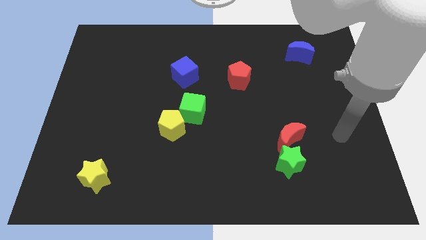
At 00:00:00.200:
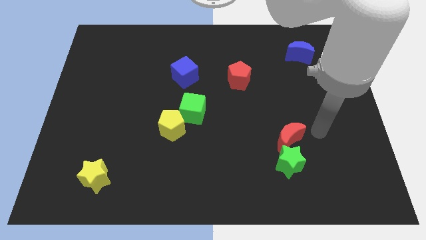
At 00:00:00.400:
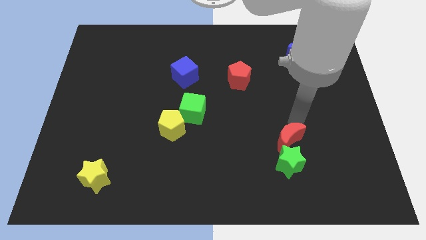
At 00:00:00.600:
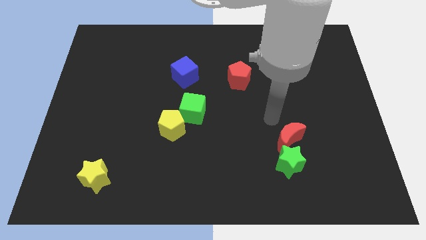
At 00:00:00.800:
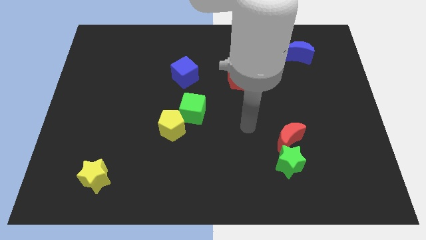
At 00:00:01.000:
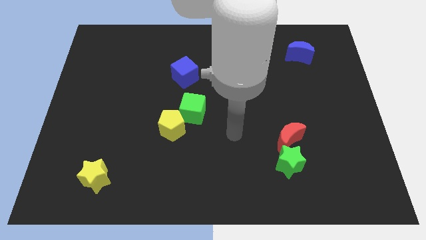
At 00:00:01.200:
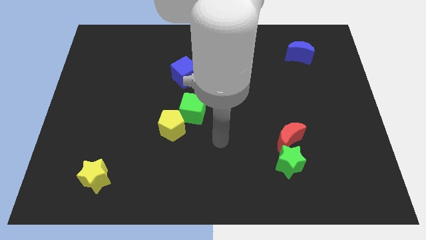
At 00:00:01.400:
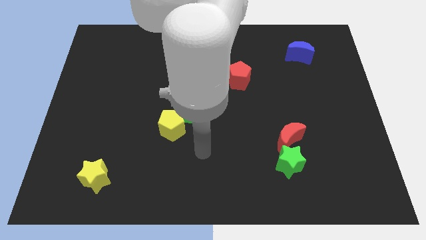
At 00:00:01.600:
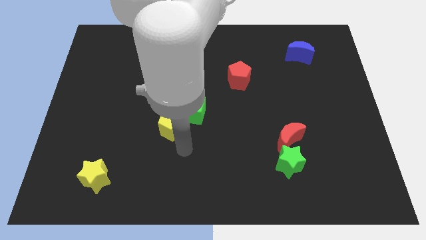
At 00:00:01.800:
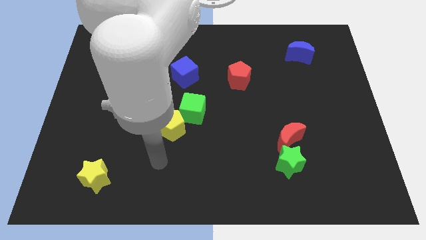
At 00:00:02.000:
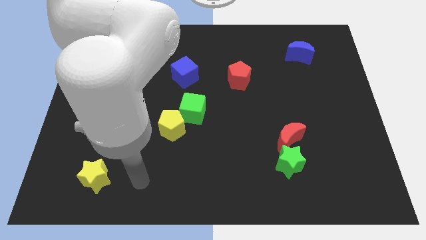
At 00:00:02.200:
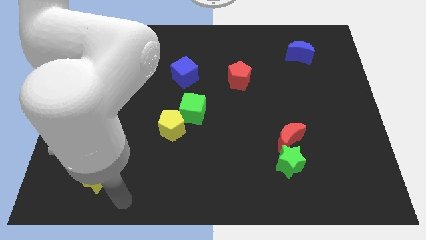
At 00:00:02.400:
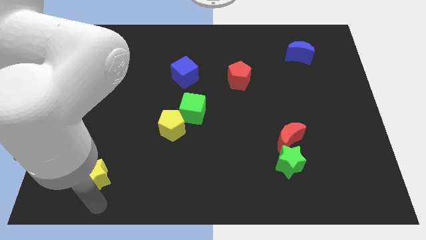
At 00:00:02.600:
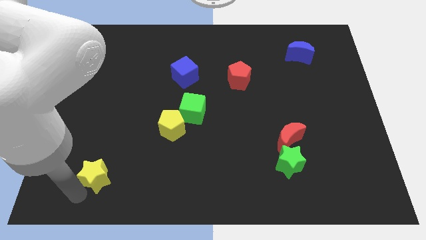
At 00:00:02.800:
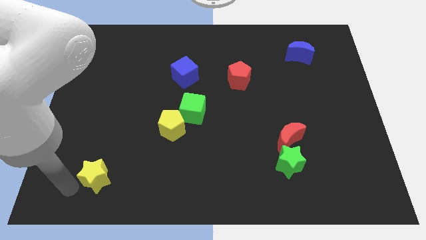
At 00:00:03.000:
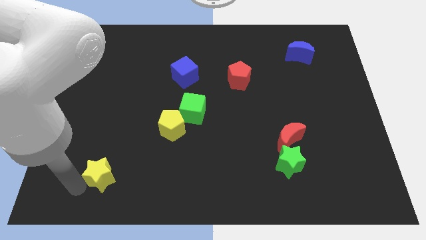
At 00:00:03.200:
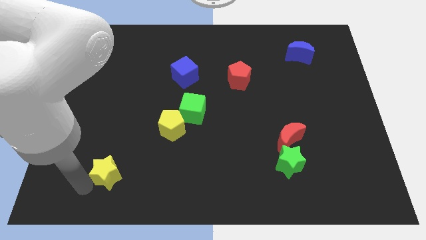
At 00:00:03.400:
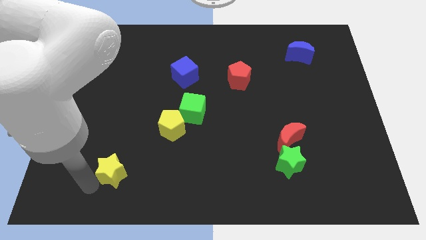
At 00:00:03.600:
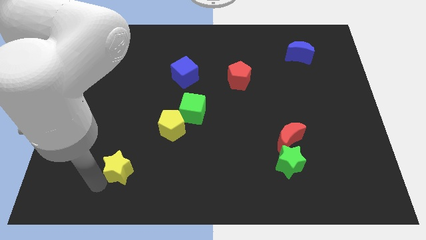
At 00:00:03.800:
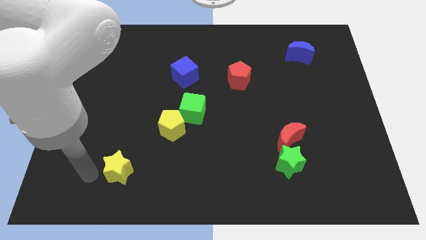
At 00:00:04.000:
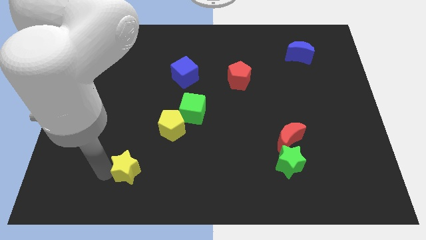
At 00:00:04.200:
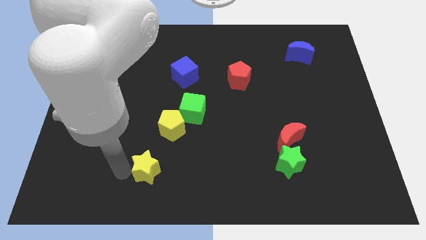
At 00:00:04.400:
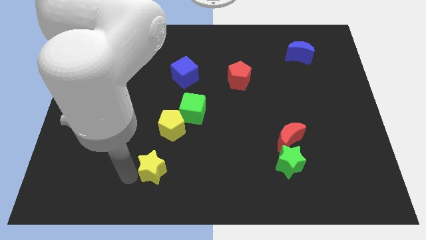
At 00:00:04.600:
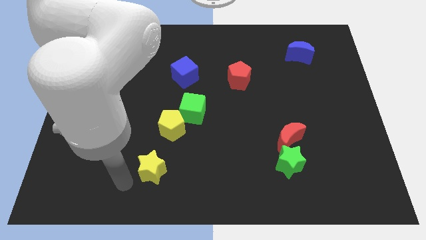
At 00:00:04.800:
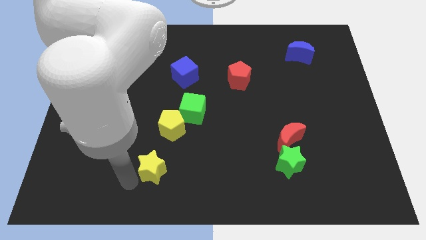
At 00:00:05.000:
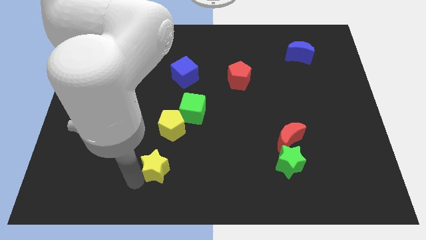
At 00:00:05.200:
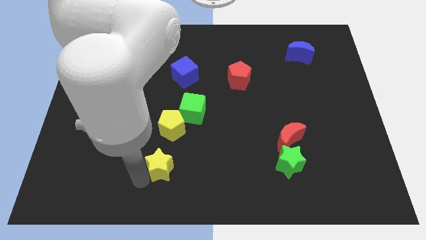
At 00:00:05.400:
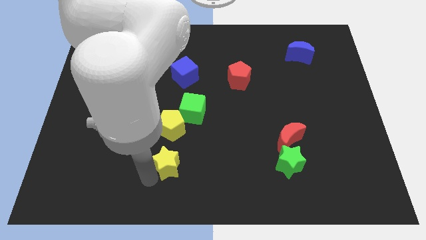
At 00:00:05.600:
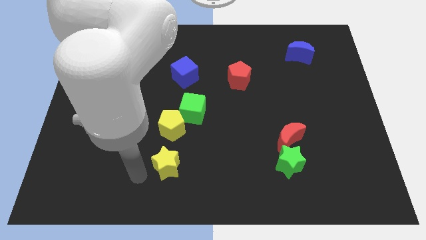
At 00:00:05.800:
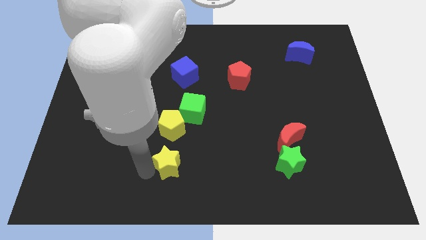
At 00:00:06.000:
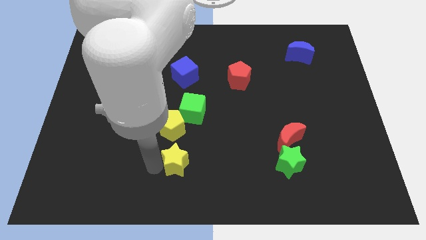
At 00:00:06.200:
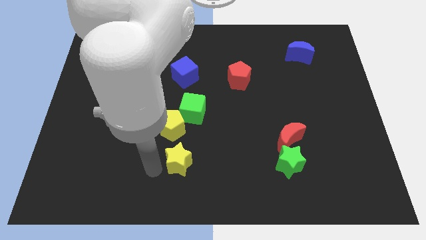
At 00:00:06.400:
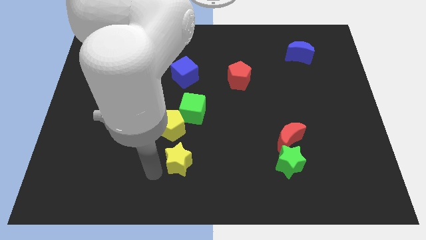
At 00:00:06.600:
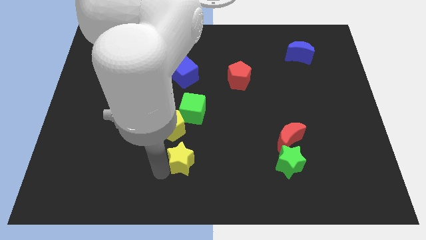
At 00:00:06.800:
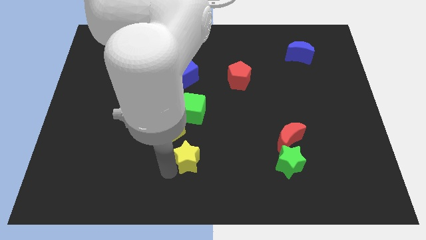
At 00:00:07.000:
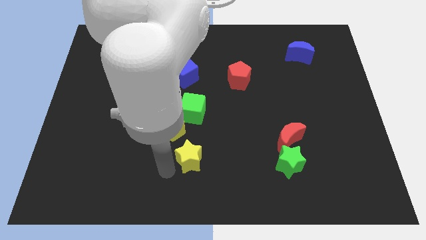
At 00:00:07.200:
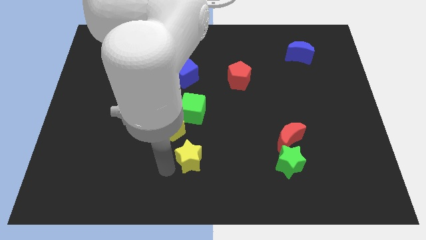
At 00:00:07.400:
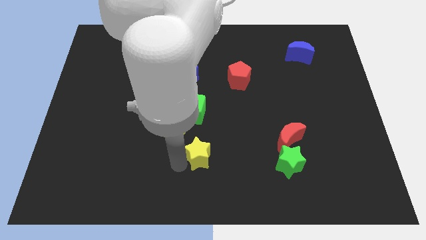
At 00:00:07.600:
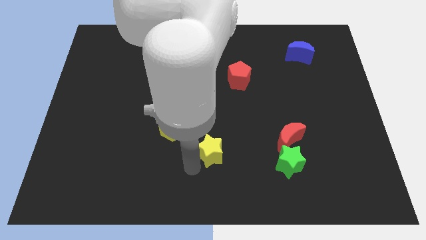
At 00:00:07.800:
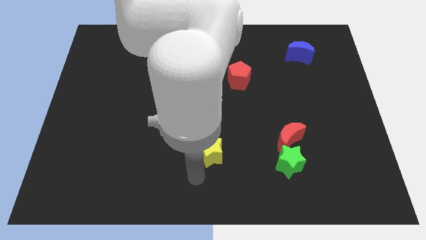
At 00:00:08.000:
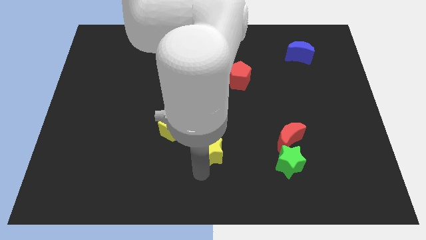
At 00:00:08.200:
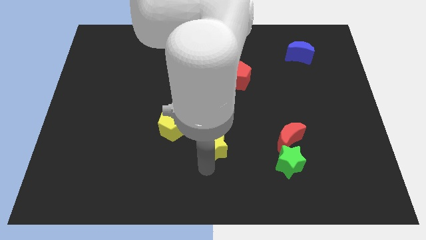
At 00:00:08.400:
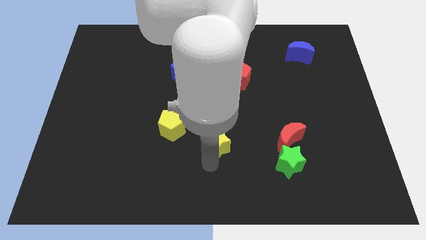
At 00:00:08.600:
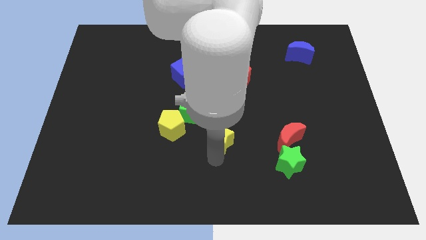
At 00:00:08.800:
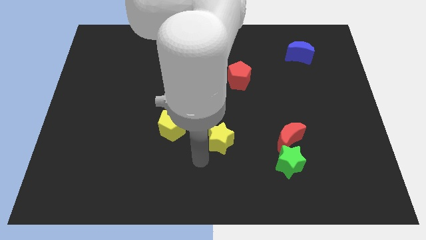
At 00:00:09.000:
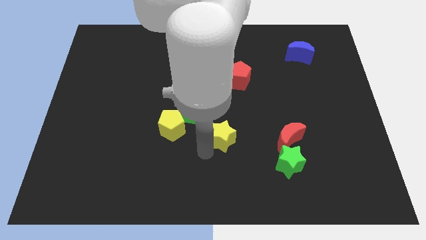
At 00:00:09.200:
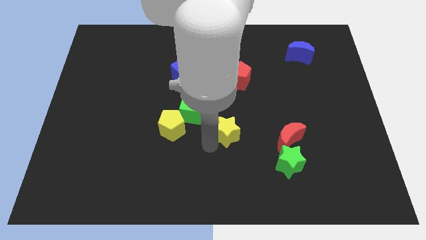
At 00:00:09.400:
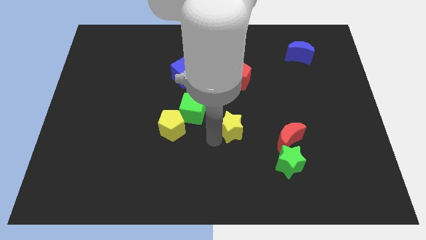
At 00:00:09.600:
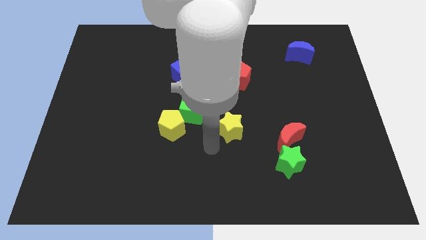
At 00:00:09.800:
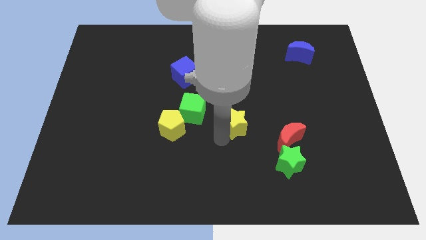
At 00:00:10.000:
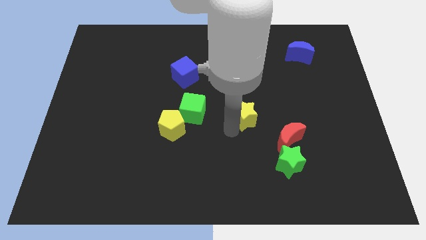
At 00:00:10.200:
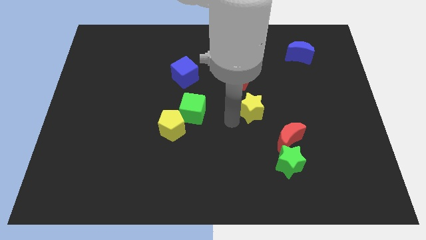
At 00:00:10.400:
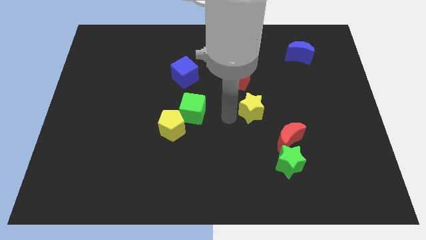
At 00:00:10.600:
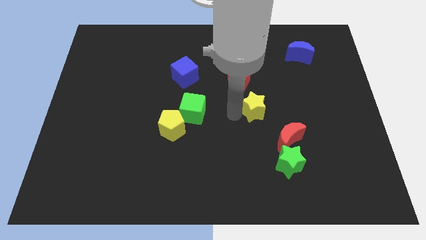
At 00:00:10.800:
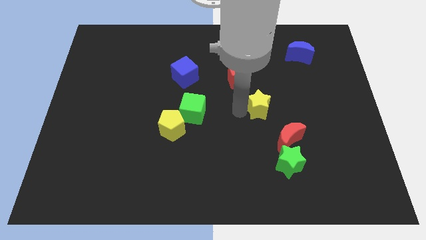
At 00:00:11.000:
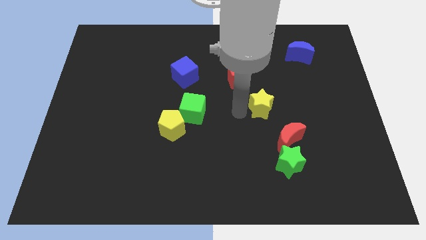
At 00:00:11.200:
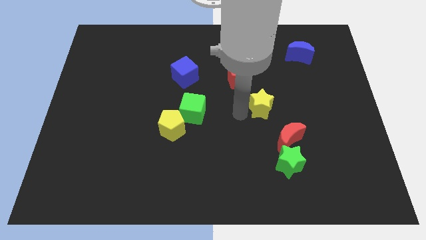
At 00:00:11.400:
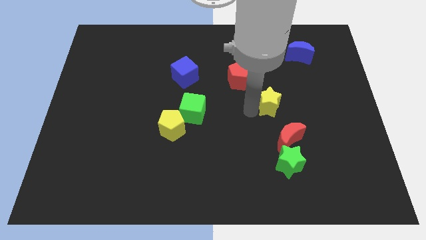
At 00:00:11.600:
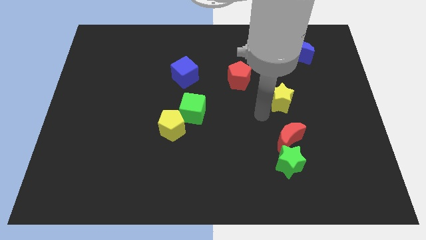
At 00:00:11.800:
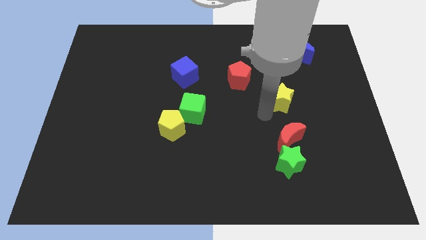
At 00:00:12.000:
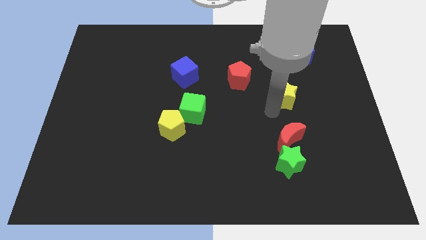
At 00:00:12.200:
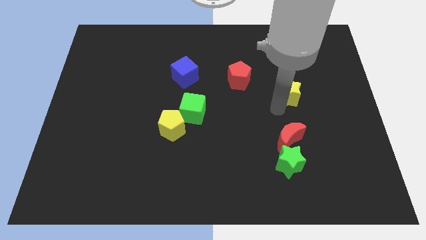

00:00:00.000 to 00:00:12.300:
slide the yellow star to the bottom side of the blue moon

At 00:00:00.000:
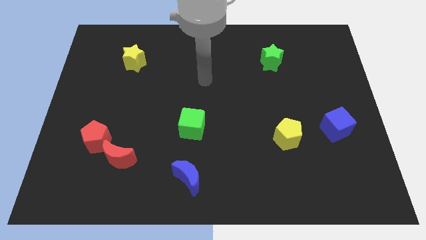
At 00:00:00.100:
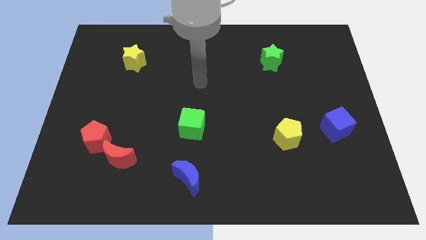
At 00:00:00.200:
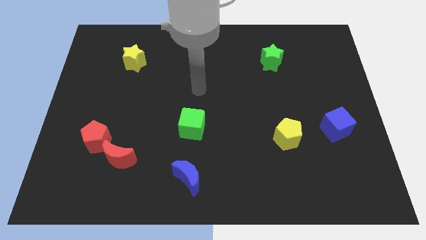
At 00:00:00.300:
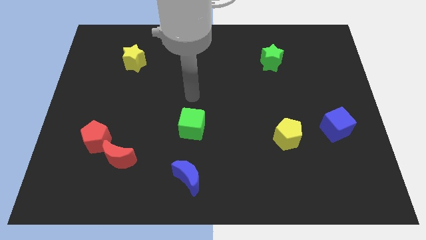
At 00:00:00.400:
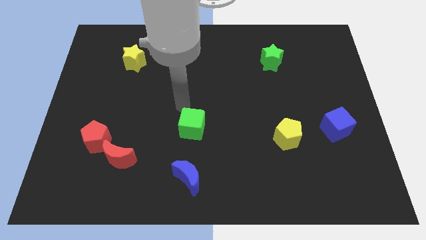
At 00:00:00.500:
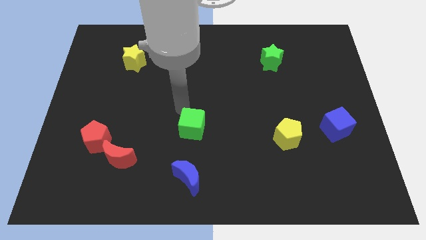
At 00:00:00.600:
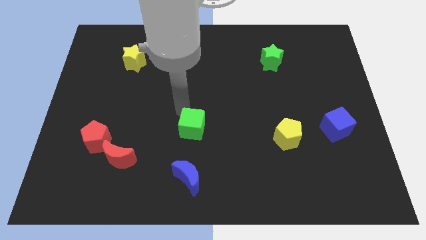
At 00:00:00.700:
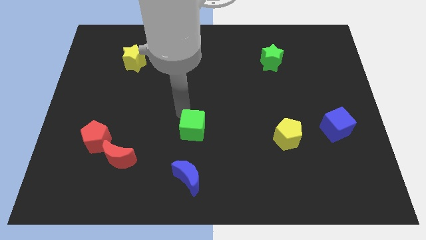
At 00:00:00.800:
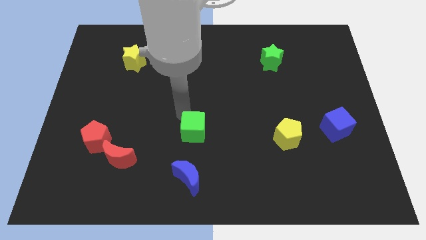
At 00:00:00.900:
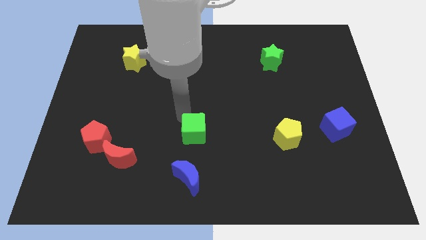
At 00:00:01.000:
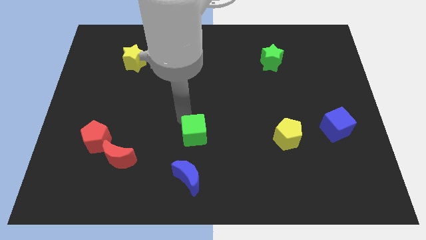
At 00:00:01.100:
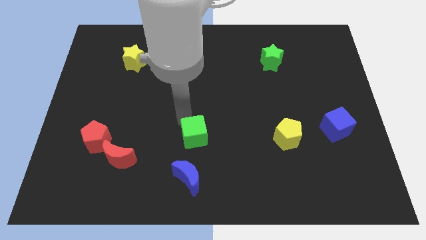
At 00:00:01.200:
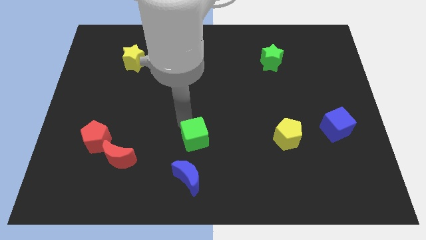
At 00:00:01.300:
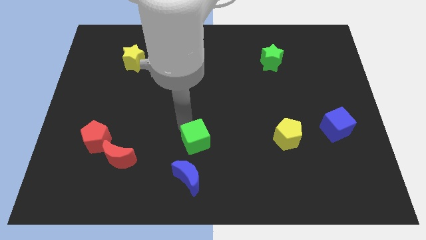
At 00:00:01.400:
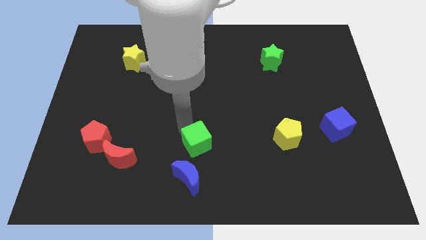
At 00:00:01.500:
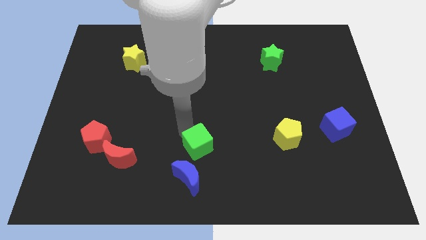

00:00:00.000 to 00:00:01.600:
push the green cube to the top right side of the blue moon
